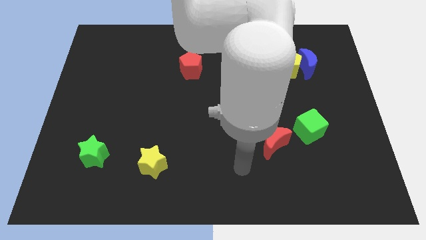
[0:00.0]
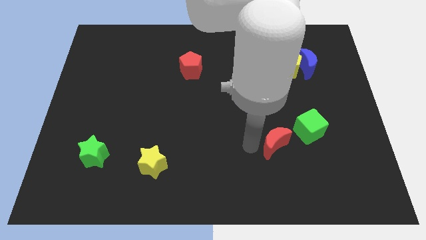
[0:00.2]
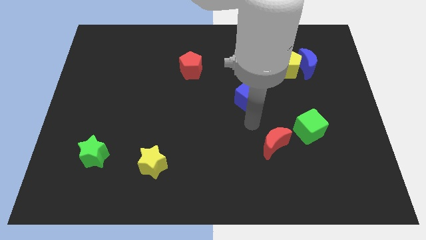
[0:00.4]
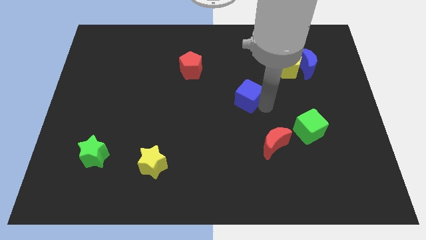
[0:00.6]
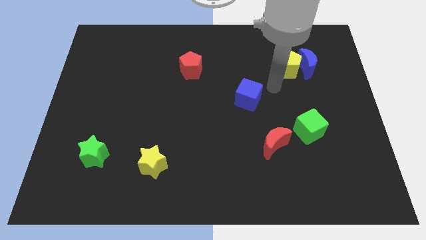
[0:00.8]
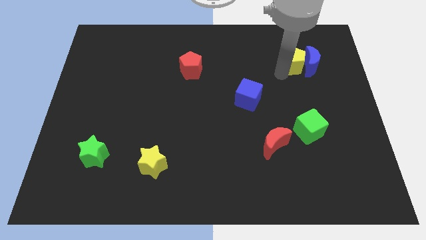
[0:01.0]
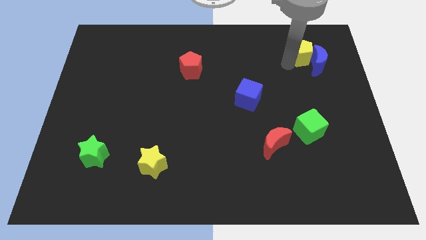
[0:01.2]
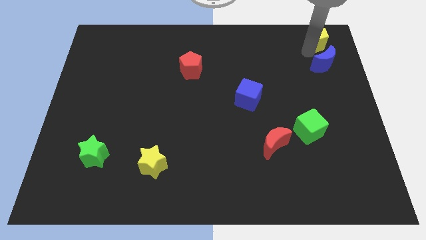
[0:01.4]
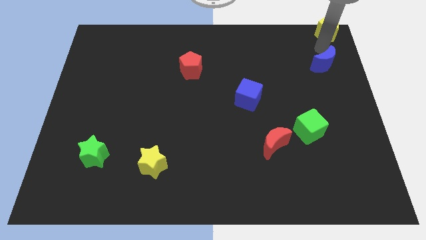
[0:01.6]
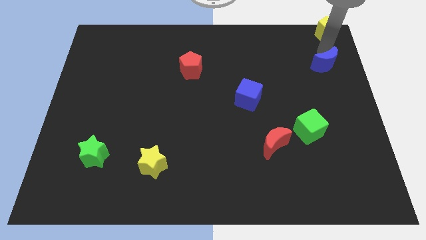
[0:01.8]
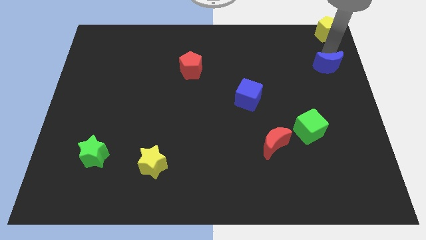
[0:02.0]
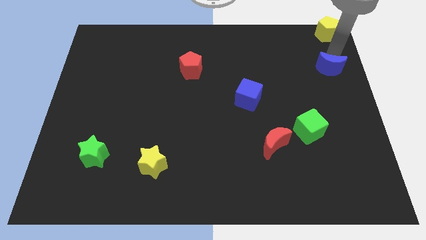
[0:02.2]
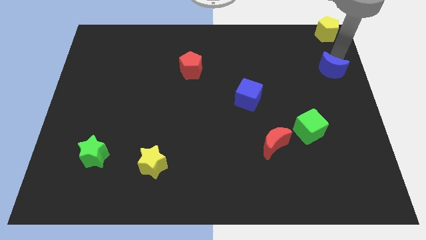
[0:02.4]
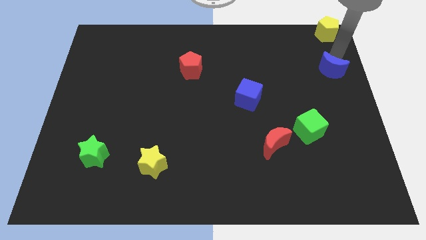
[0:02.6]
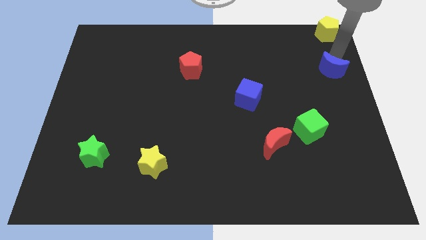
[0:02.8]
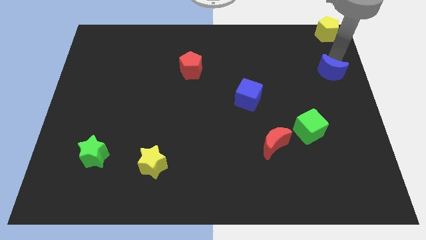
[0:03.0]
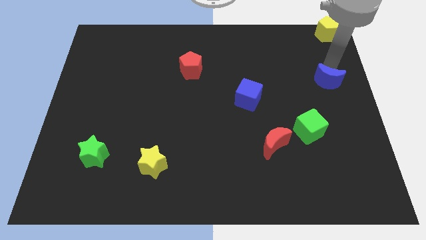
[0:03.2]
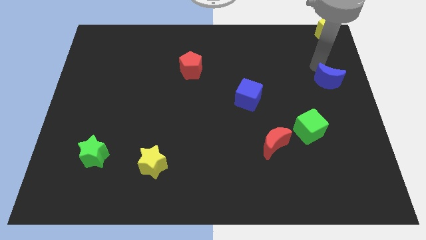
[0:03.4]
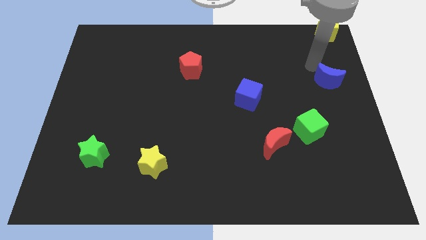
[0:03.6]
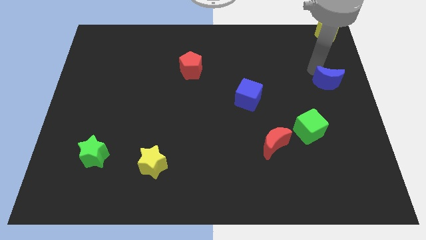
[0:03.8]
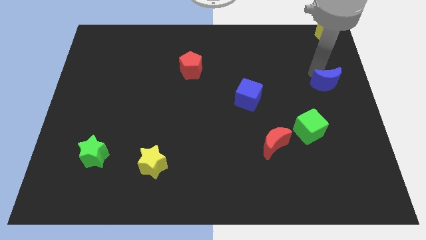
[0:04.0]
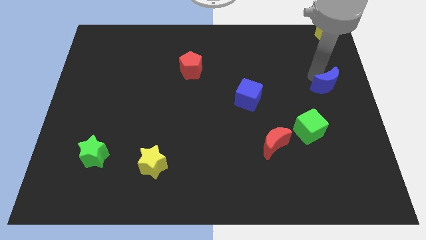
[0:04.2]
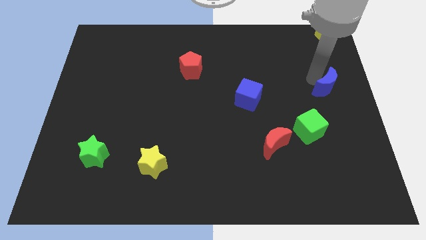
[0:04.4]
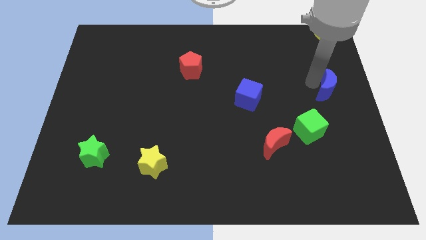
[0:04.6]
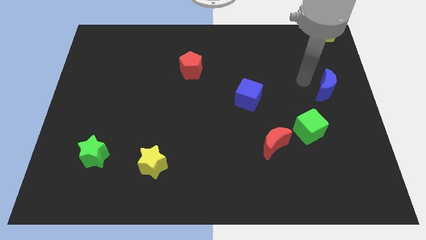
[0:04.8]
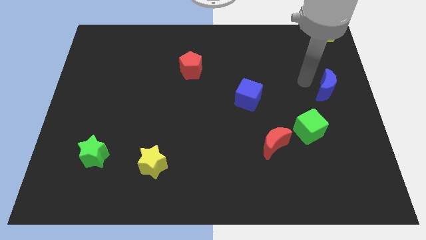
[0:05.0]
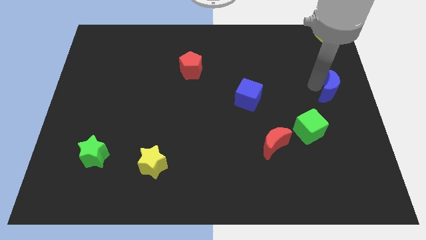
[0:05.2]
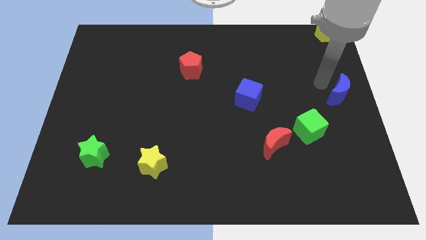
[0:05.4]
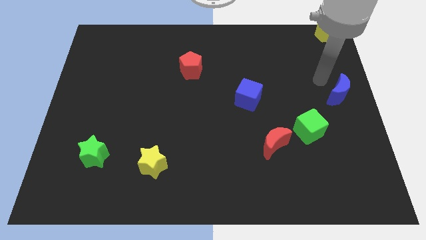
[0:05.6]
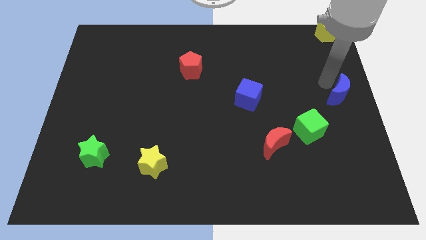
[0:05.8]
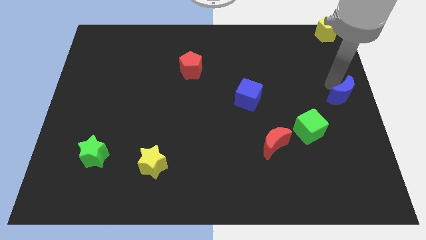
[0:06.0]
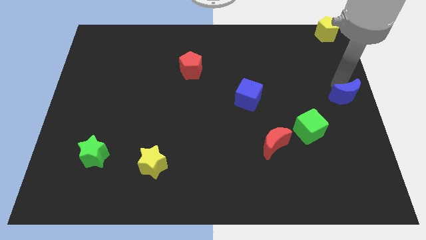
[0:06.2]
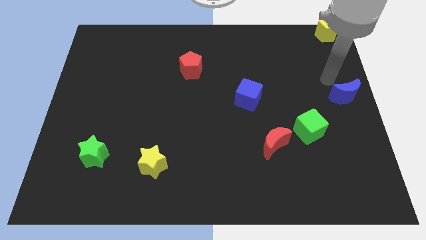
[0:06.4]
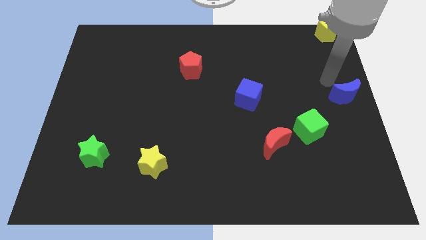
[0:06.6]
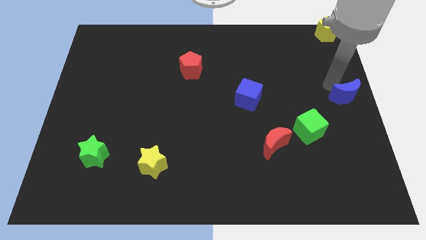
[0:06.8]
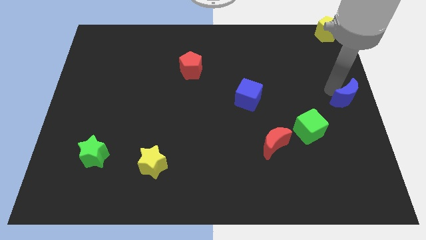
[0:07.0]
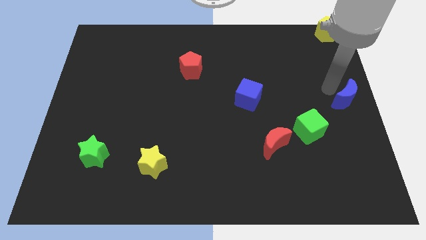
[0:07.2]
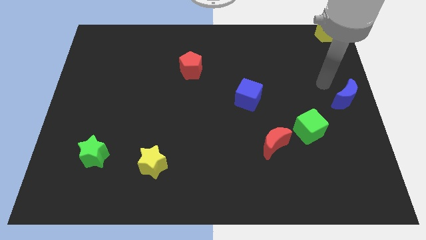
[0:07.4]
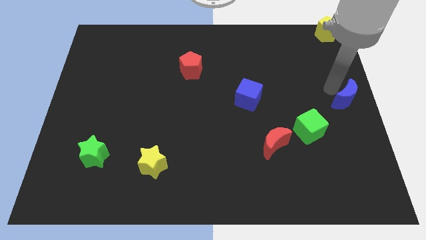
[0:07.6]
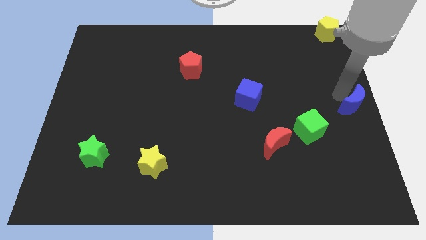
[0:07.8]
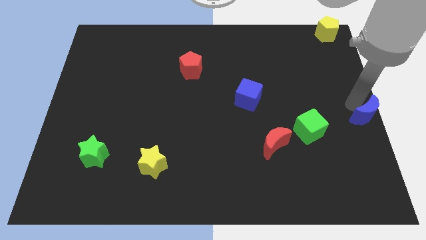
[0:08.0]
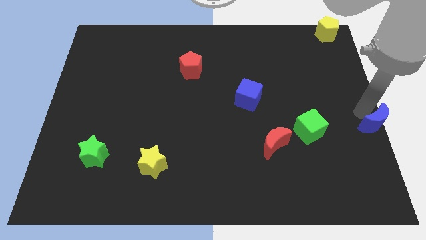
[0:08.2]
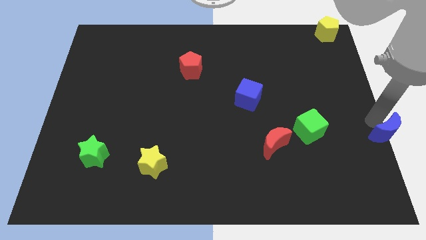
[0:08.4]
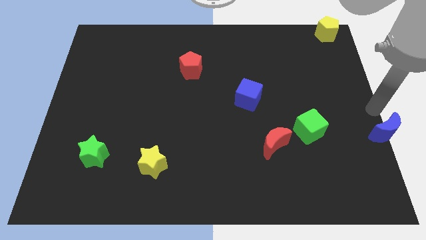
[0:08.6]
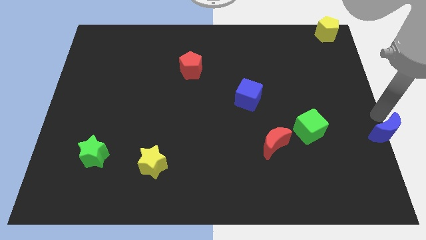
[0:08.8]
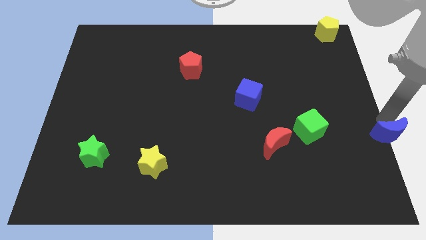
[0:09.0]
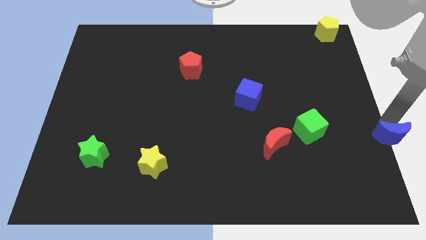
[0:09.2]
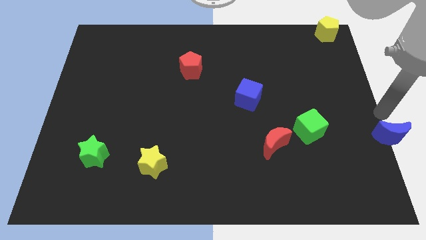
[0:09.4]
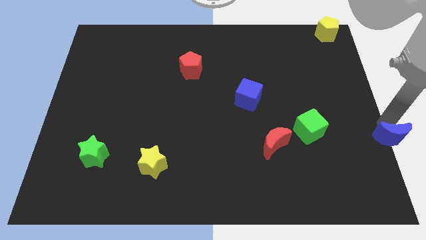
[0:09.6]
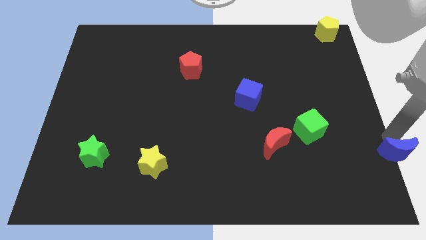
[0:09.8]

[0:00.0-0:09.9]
put the blue moon to the bottom right of the board

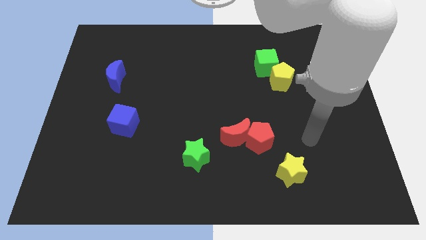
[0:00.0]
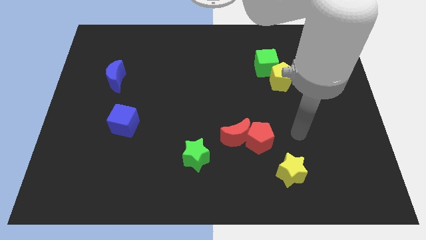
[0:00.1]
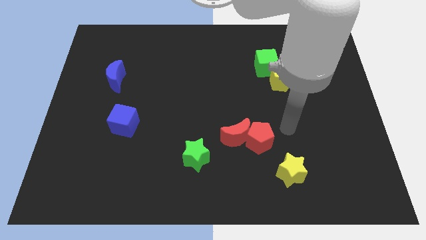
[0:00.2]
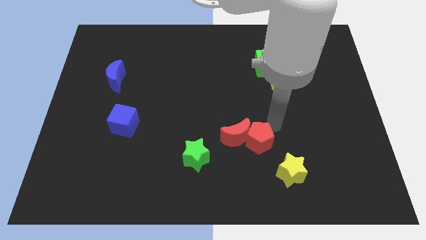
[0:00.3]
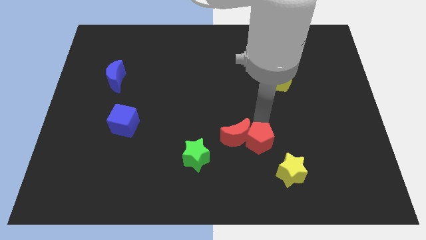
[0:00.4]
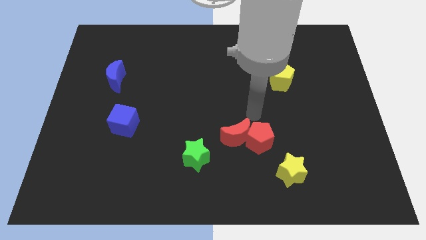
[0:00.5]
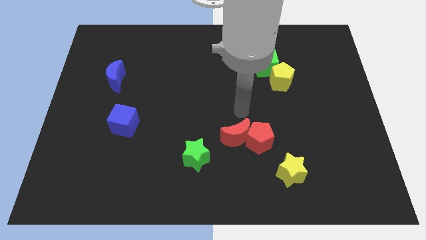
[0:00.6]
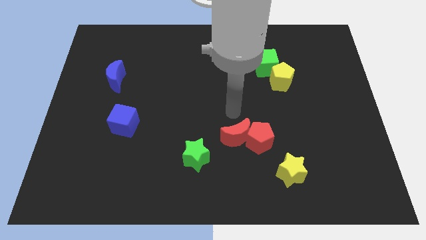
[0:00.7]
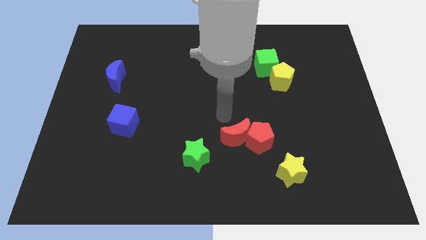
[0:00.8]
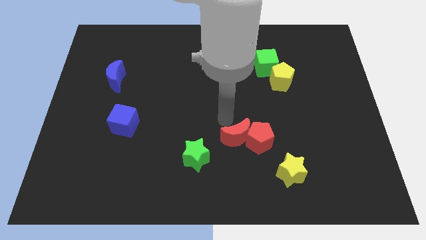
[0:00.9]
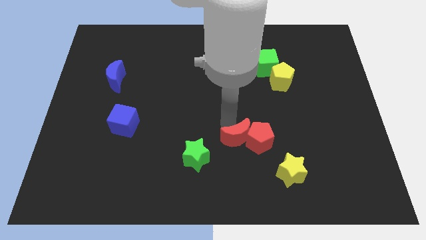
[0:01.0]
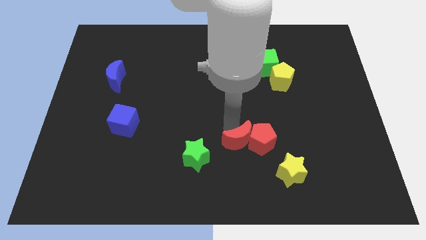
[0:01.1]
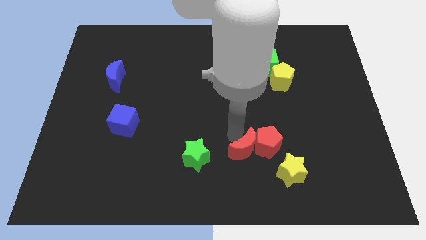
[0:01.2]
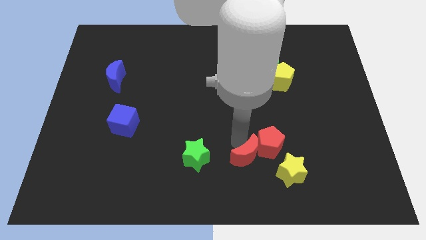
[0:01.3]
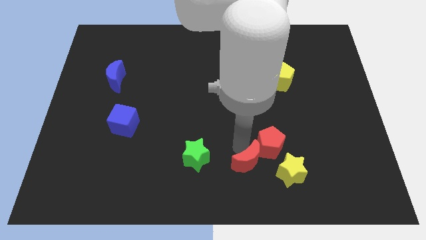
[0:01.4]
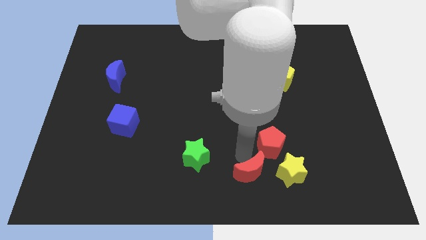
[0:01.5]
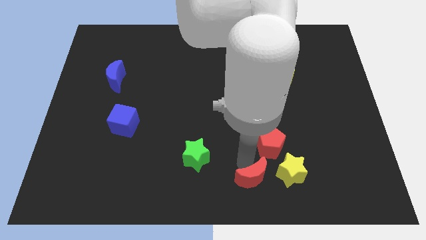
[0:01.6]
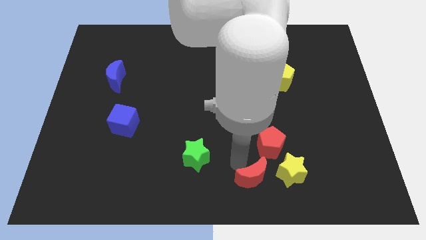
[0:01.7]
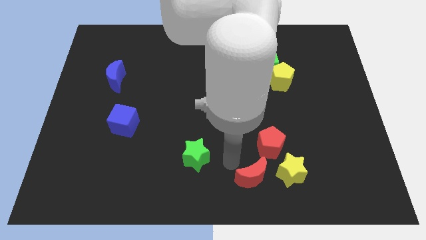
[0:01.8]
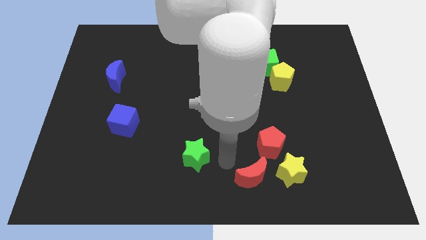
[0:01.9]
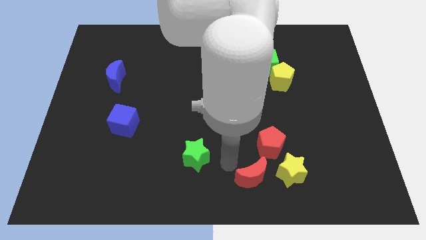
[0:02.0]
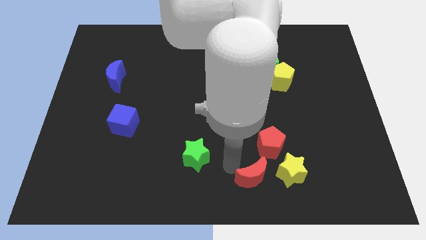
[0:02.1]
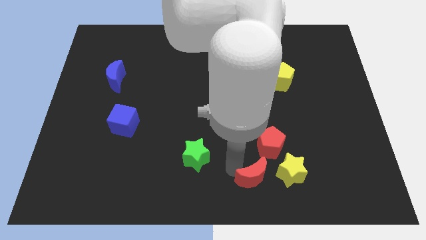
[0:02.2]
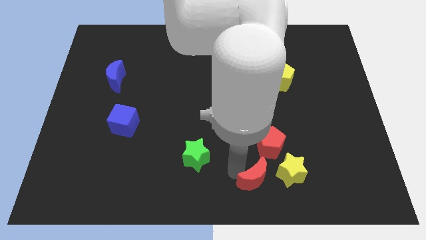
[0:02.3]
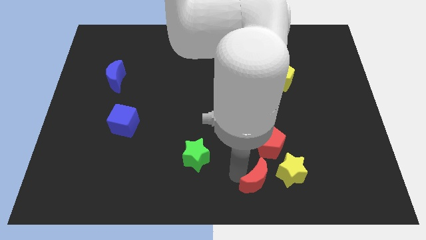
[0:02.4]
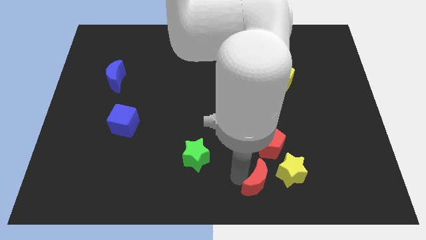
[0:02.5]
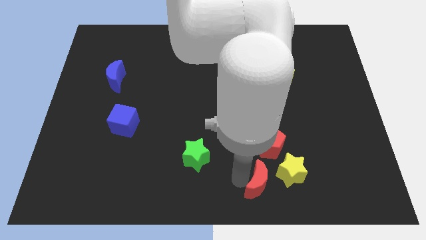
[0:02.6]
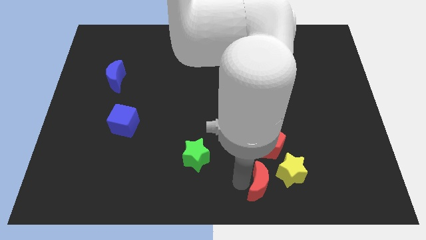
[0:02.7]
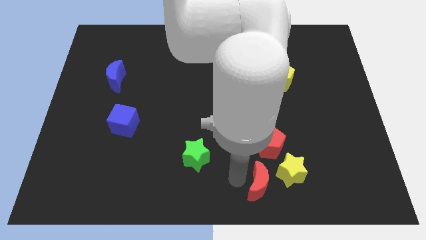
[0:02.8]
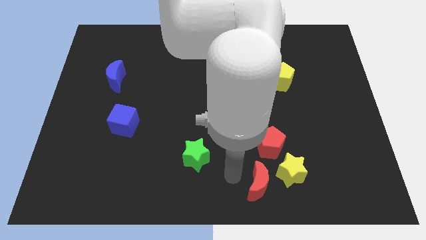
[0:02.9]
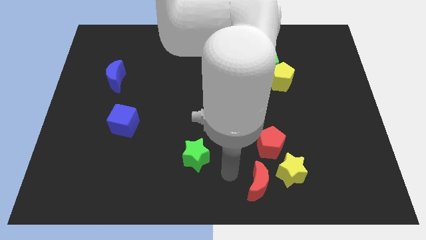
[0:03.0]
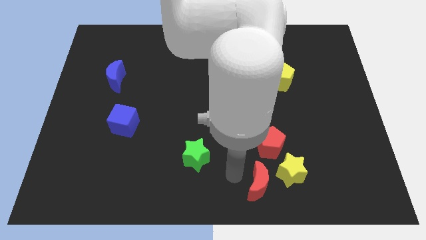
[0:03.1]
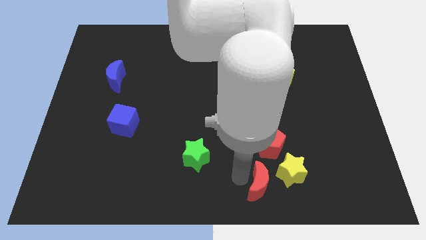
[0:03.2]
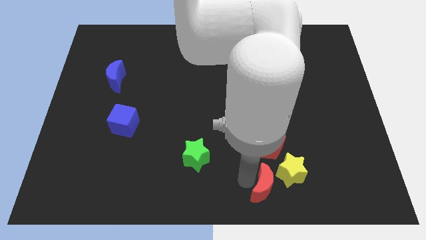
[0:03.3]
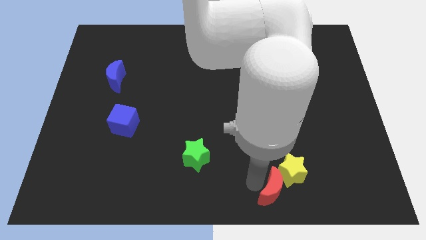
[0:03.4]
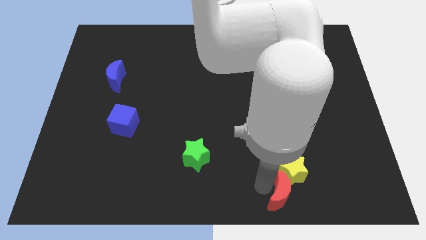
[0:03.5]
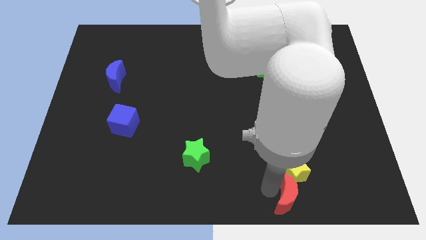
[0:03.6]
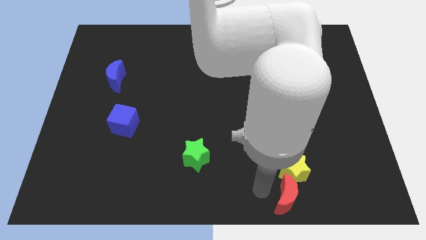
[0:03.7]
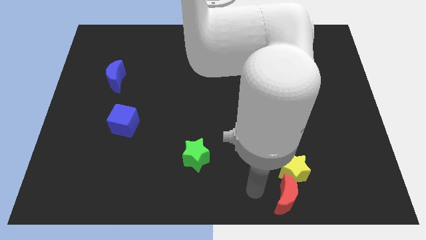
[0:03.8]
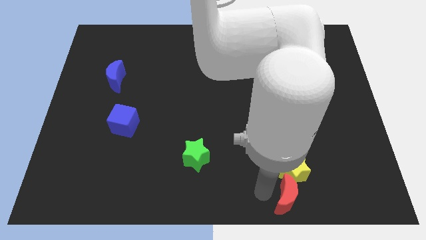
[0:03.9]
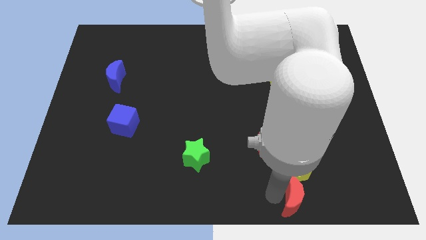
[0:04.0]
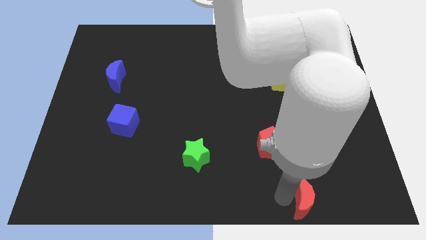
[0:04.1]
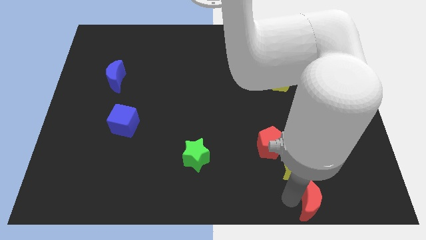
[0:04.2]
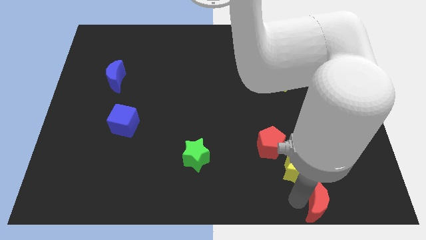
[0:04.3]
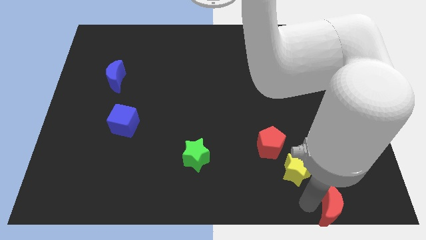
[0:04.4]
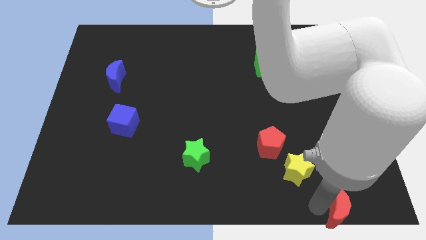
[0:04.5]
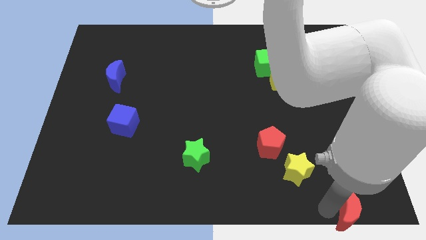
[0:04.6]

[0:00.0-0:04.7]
slide the red moon to the bottom right of the board
